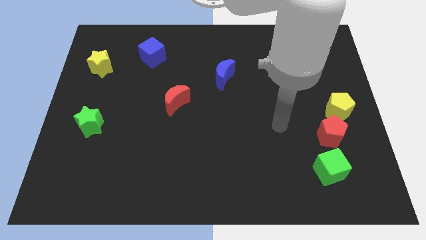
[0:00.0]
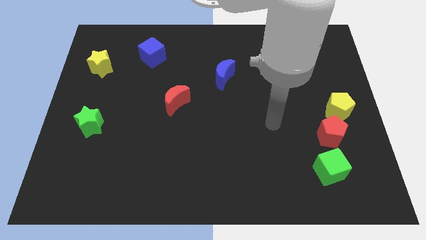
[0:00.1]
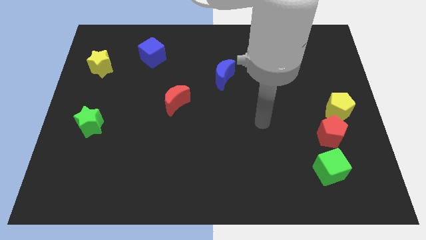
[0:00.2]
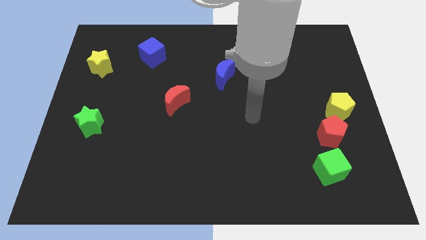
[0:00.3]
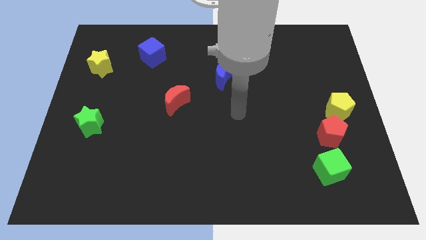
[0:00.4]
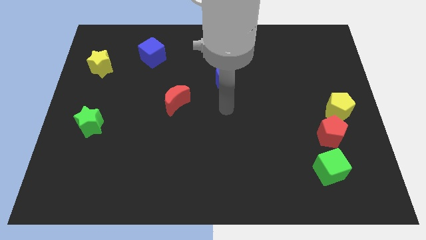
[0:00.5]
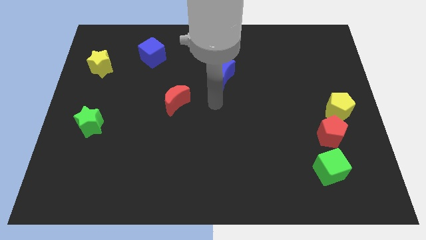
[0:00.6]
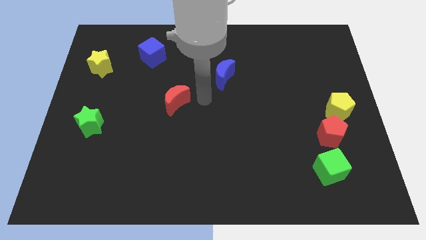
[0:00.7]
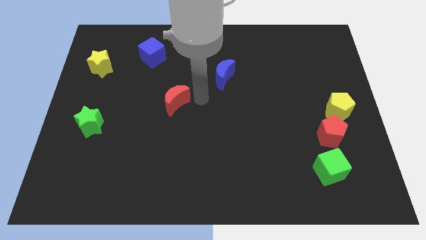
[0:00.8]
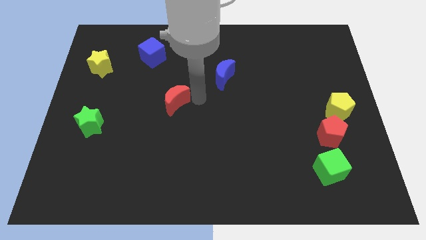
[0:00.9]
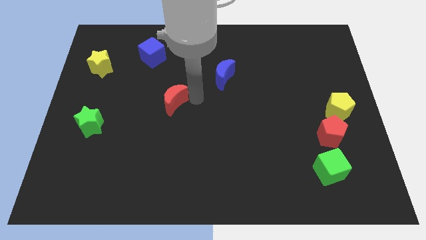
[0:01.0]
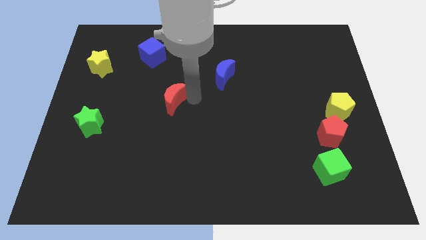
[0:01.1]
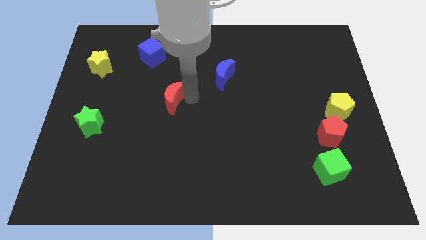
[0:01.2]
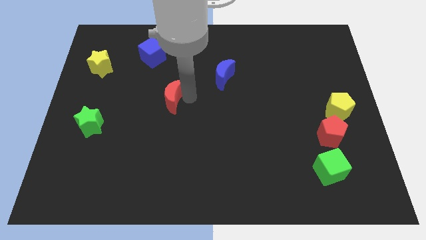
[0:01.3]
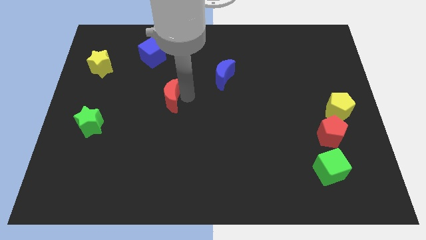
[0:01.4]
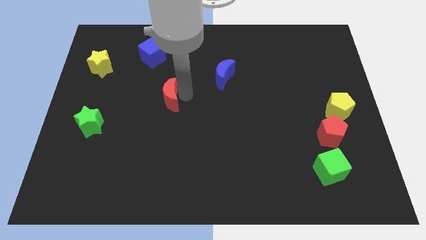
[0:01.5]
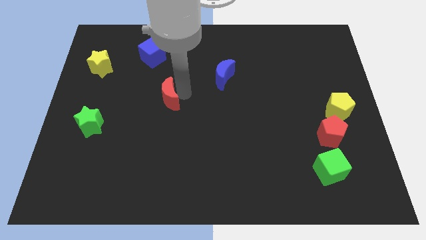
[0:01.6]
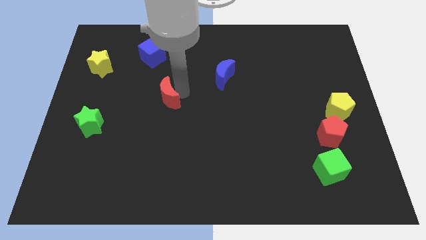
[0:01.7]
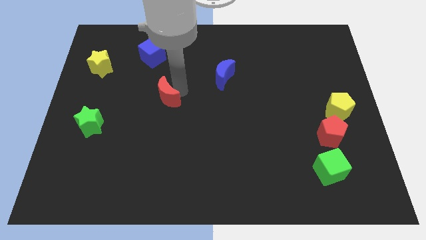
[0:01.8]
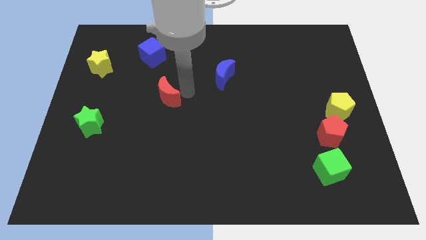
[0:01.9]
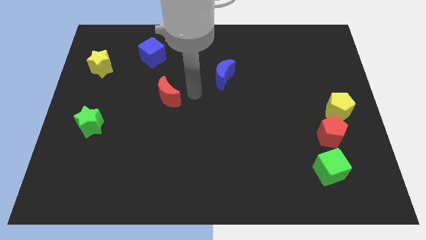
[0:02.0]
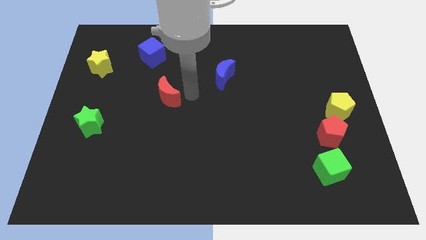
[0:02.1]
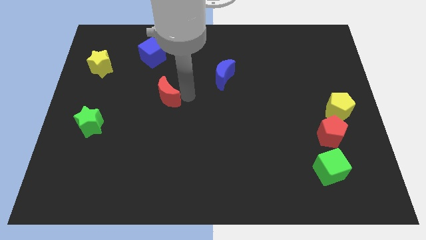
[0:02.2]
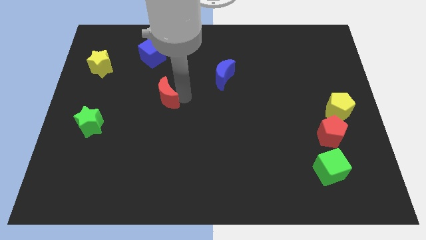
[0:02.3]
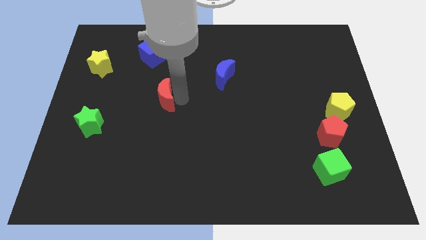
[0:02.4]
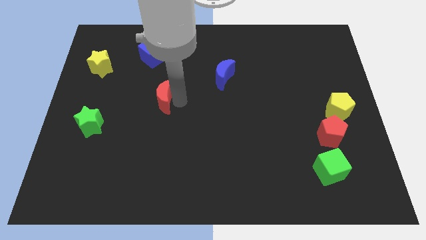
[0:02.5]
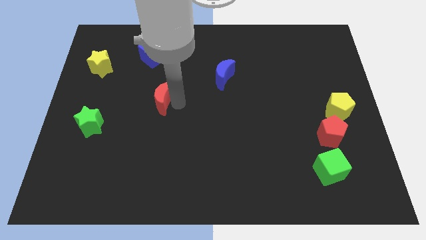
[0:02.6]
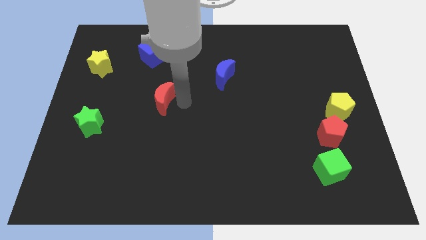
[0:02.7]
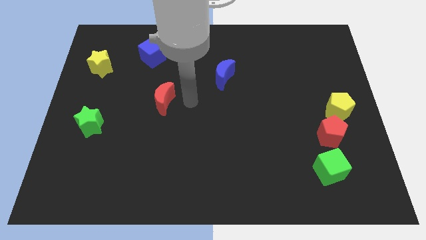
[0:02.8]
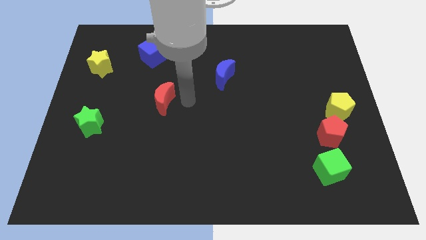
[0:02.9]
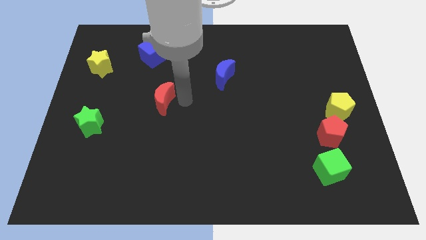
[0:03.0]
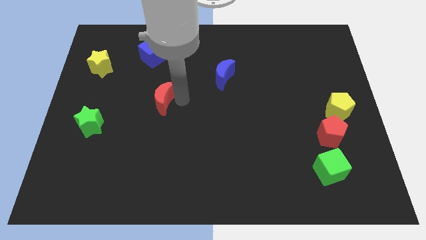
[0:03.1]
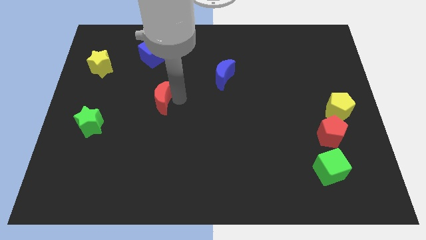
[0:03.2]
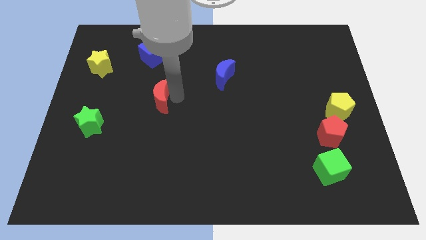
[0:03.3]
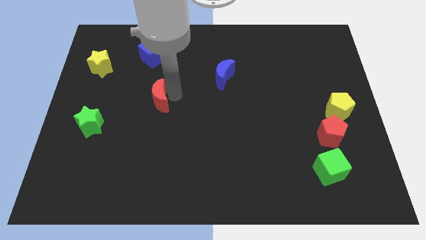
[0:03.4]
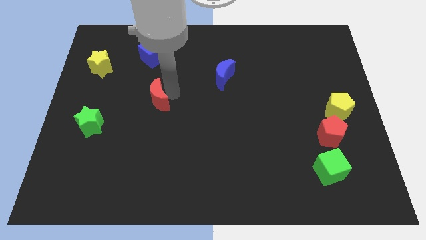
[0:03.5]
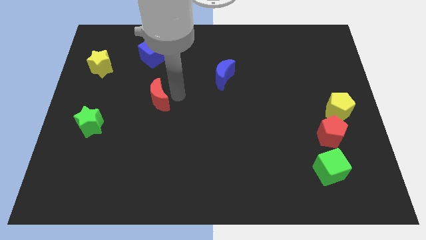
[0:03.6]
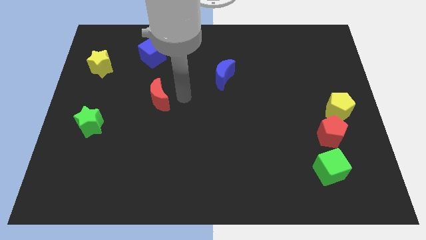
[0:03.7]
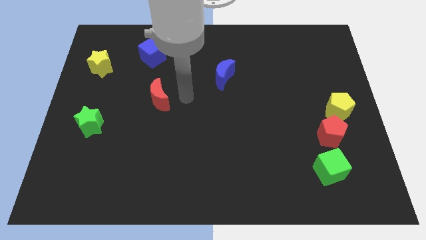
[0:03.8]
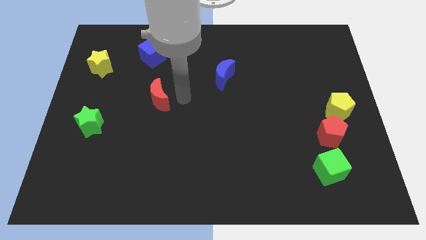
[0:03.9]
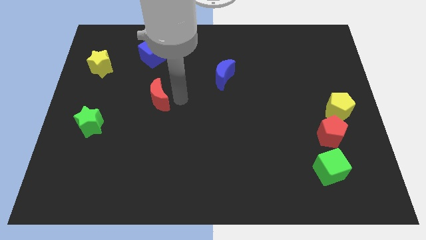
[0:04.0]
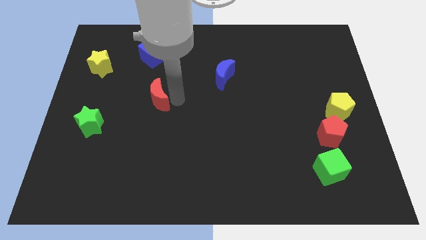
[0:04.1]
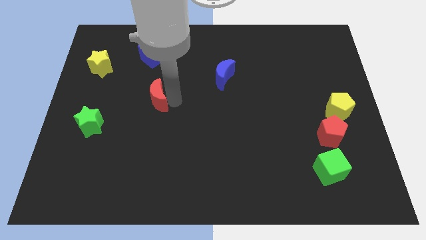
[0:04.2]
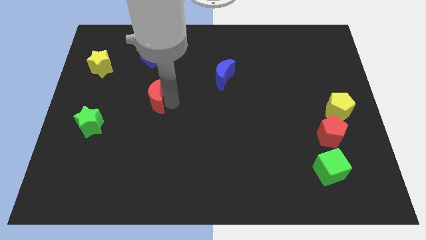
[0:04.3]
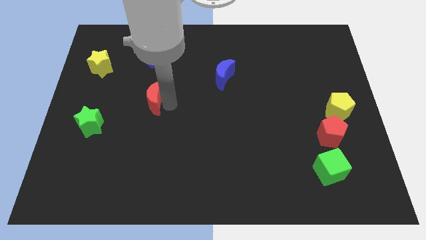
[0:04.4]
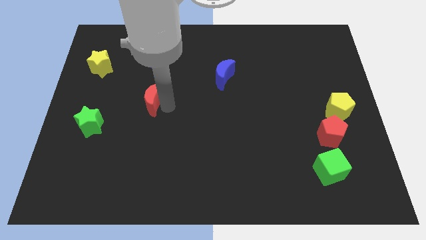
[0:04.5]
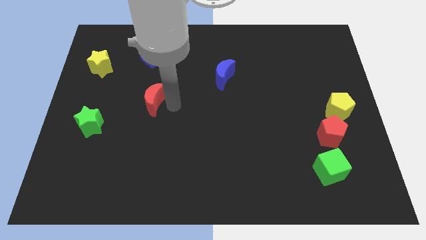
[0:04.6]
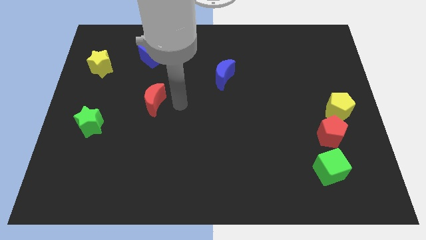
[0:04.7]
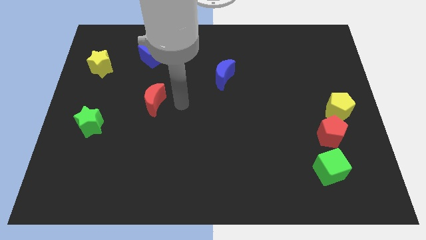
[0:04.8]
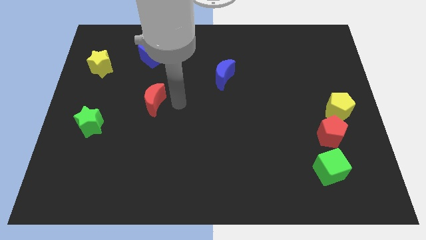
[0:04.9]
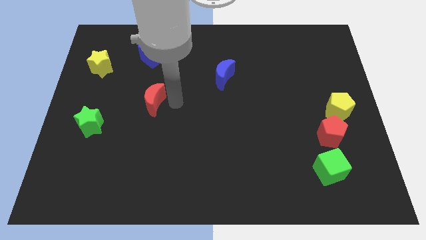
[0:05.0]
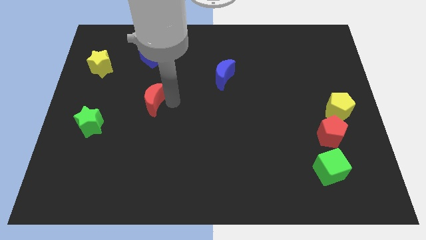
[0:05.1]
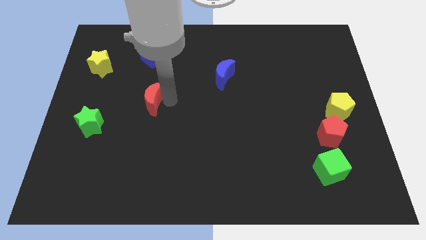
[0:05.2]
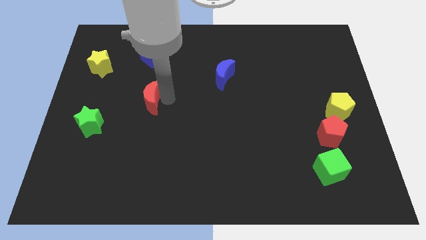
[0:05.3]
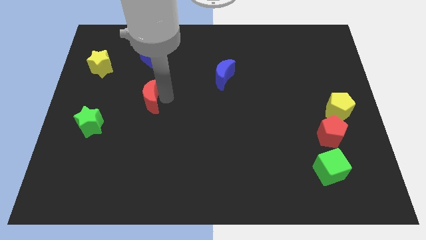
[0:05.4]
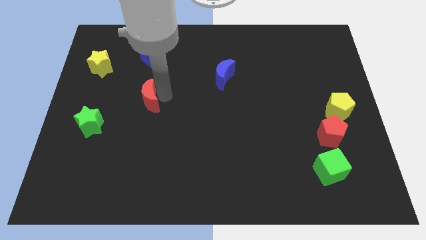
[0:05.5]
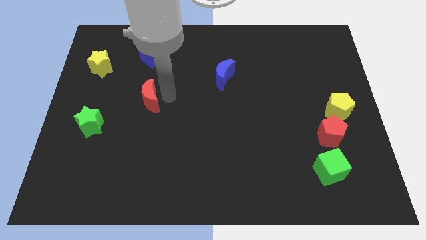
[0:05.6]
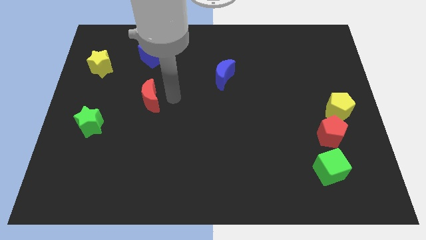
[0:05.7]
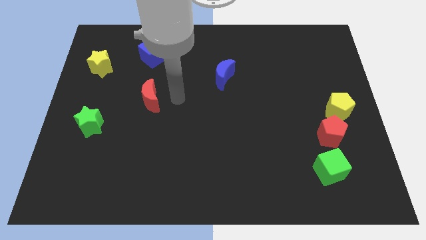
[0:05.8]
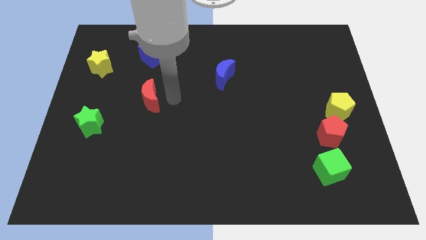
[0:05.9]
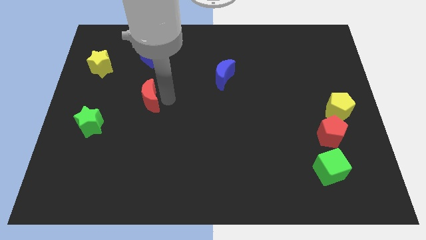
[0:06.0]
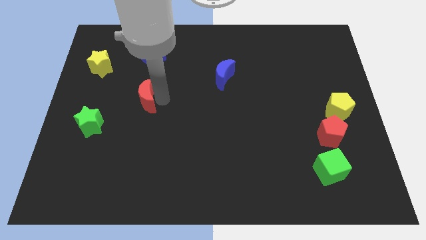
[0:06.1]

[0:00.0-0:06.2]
push the red moon to the left a little

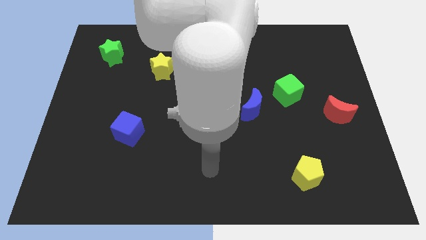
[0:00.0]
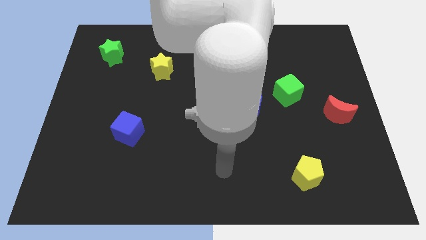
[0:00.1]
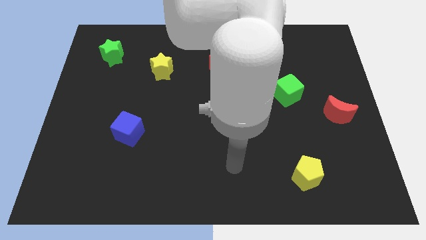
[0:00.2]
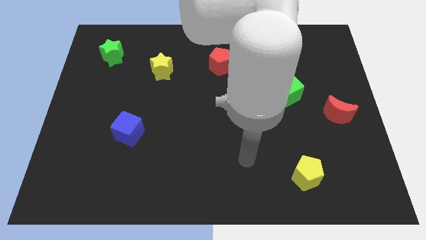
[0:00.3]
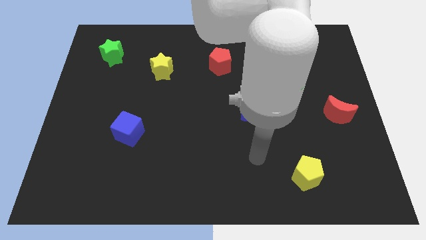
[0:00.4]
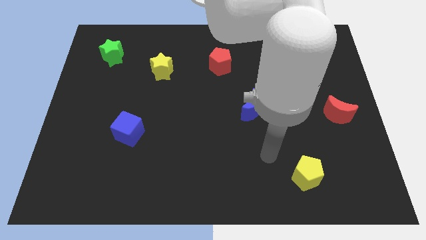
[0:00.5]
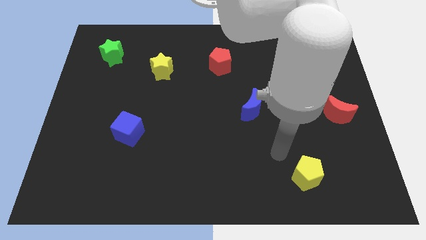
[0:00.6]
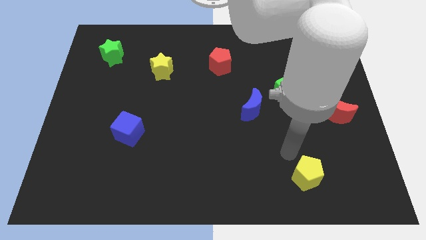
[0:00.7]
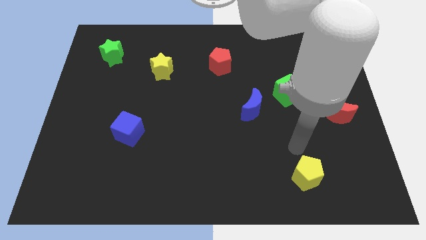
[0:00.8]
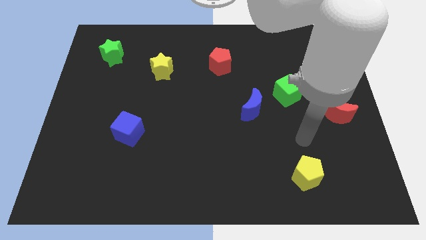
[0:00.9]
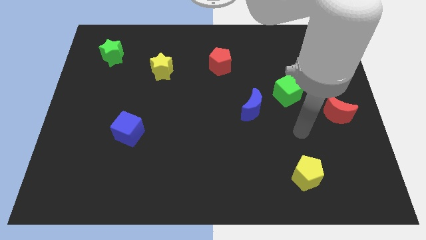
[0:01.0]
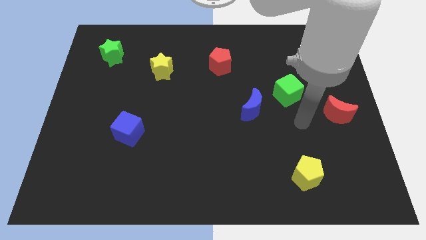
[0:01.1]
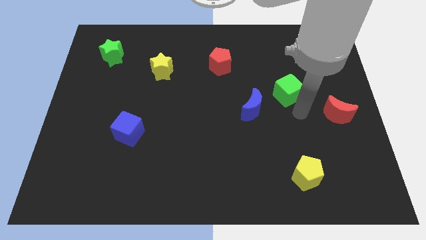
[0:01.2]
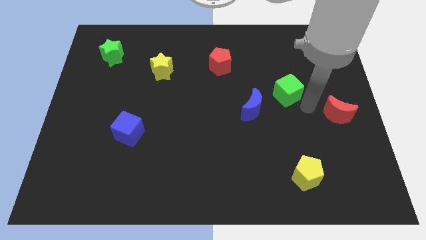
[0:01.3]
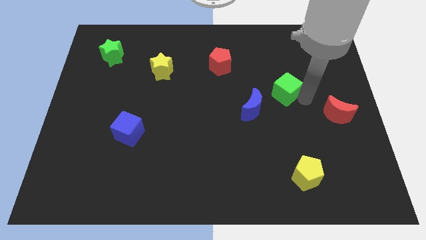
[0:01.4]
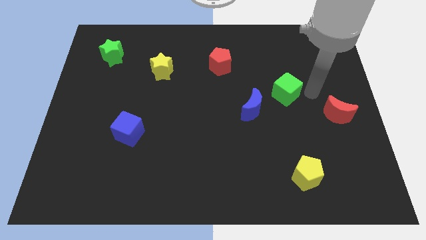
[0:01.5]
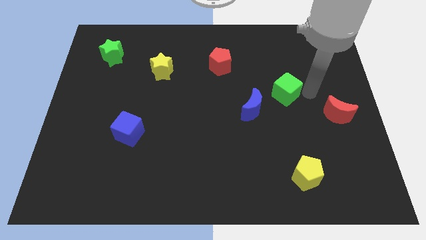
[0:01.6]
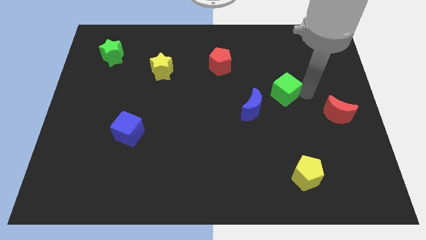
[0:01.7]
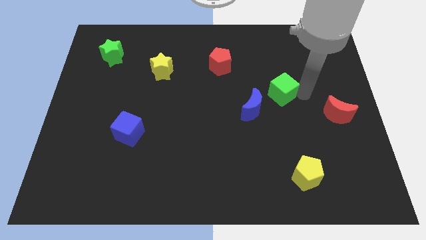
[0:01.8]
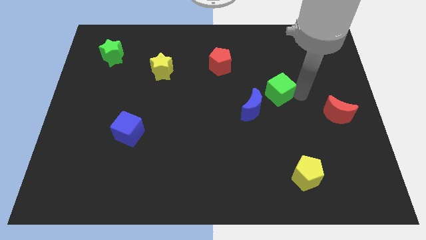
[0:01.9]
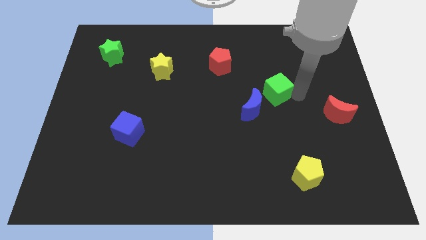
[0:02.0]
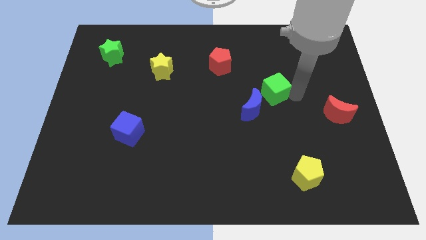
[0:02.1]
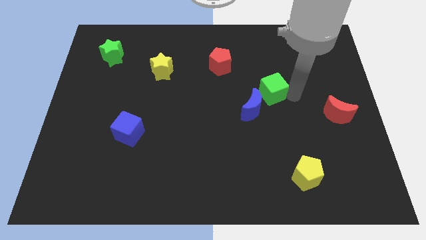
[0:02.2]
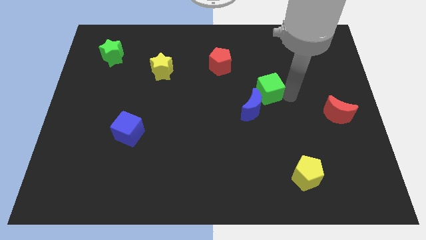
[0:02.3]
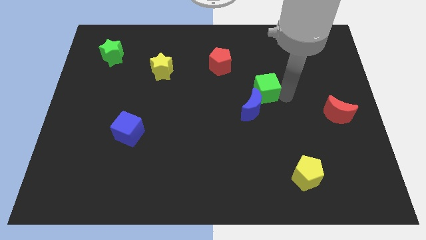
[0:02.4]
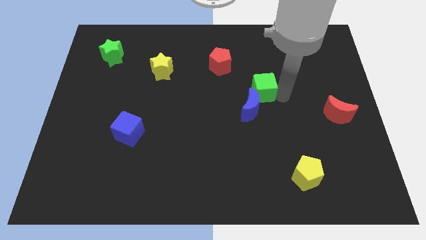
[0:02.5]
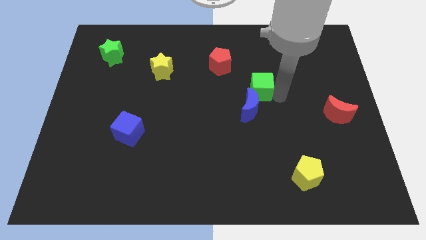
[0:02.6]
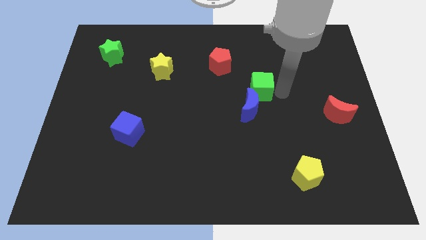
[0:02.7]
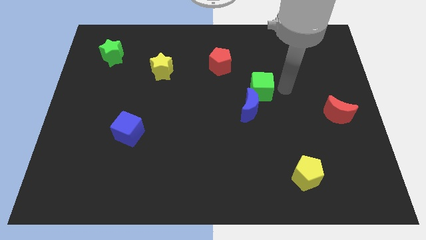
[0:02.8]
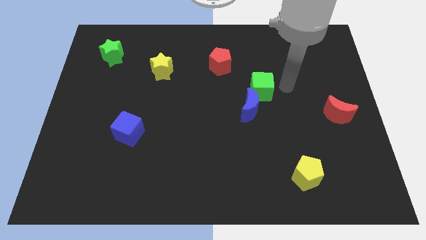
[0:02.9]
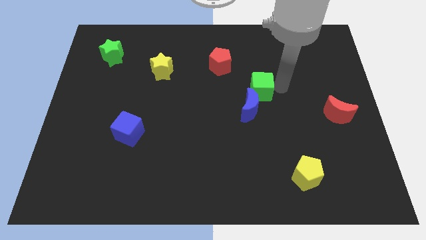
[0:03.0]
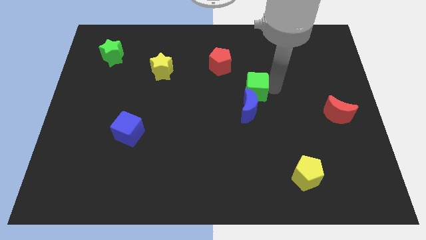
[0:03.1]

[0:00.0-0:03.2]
slightly slide the green cube left
